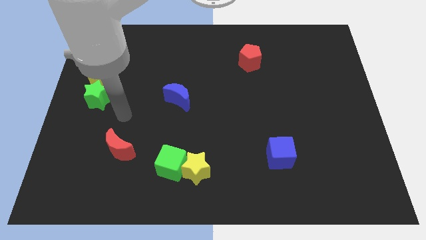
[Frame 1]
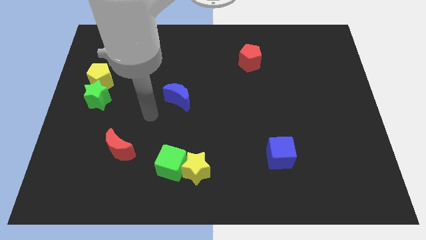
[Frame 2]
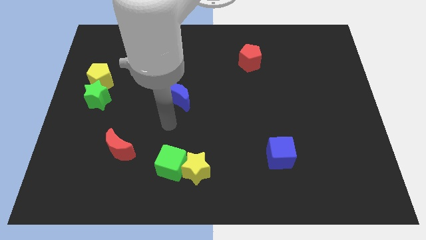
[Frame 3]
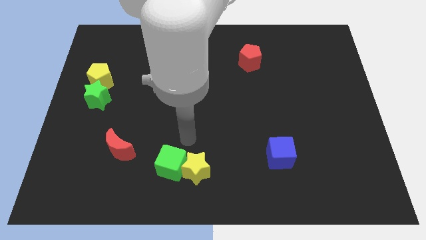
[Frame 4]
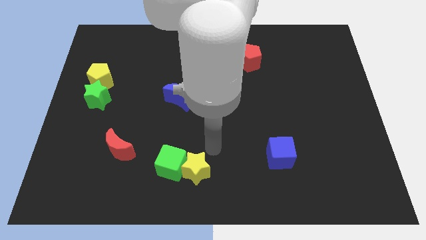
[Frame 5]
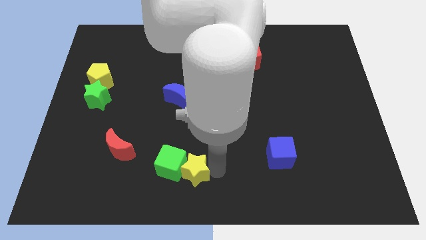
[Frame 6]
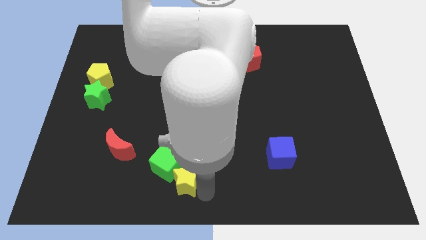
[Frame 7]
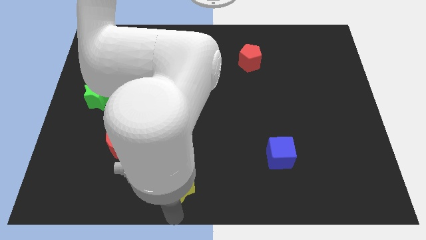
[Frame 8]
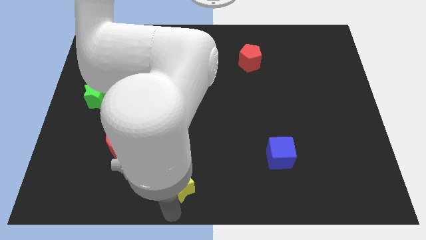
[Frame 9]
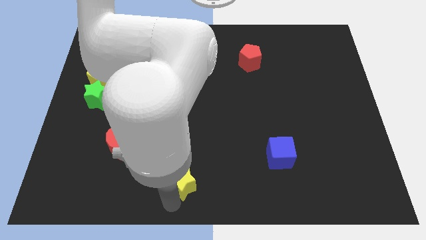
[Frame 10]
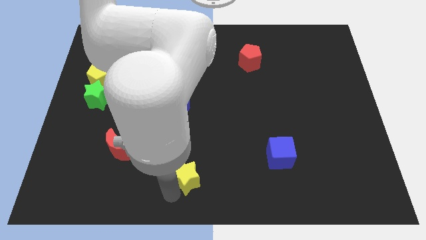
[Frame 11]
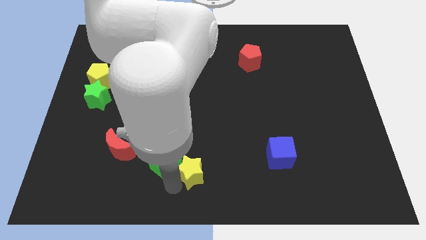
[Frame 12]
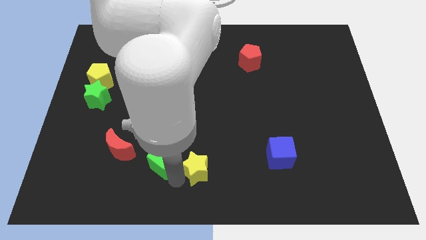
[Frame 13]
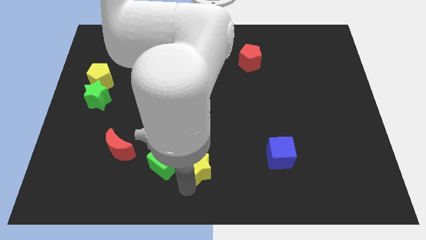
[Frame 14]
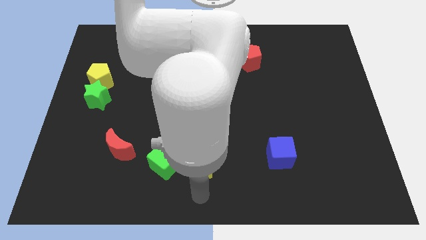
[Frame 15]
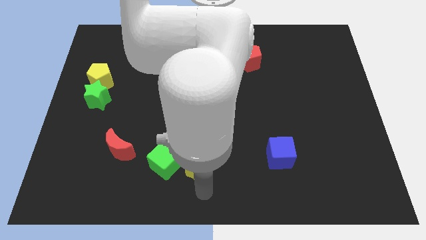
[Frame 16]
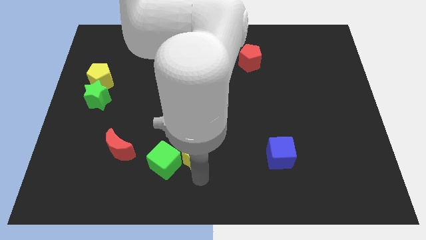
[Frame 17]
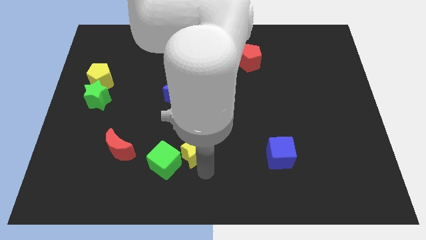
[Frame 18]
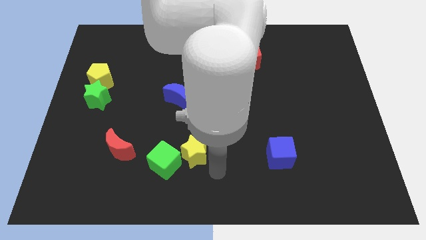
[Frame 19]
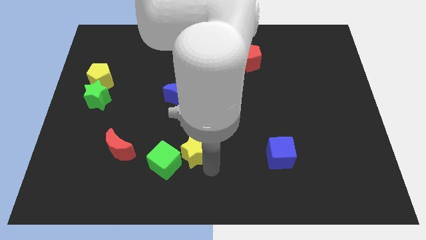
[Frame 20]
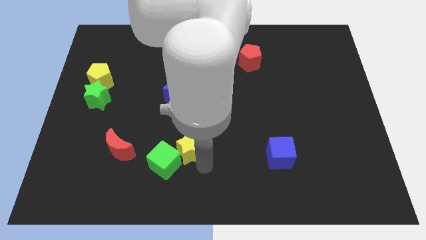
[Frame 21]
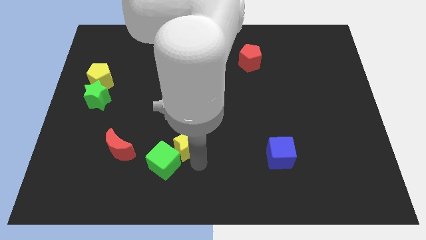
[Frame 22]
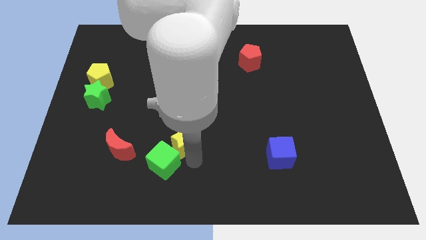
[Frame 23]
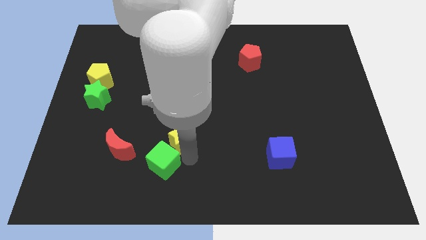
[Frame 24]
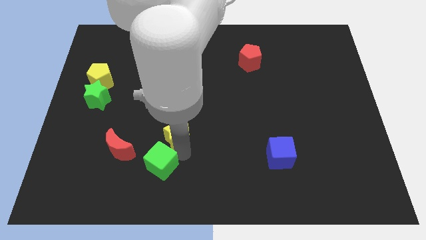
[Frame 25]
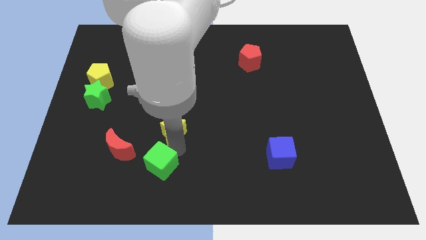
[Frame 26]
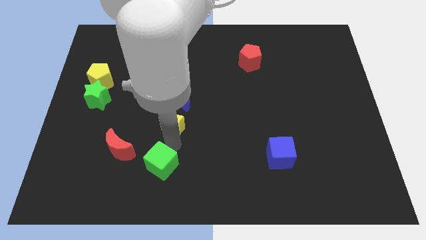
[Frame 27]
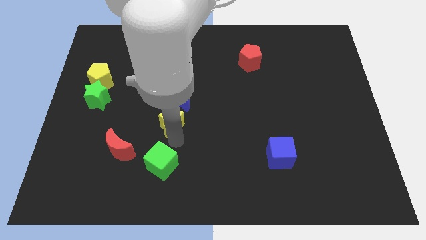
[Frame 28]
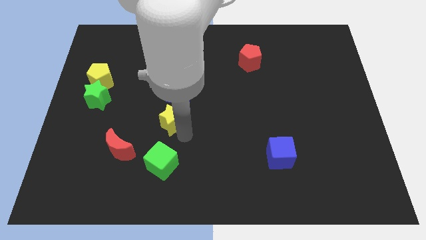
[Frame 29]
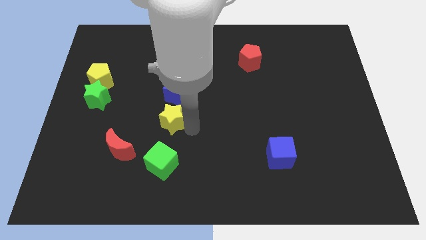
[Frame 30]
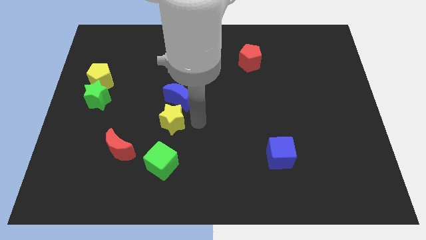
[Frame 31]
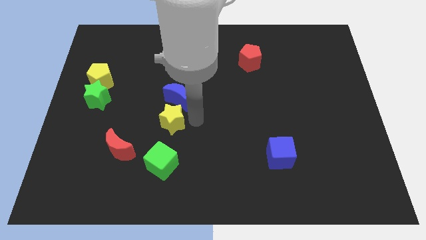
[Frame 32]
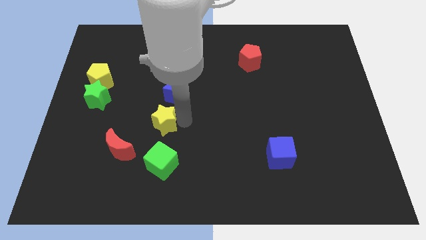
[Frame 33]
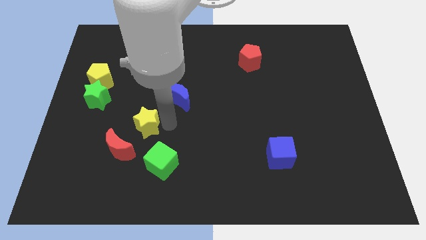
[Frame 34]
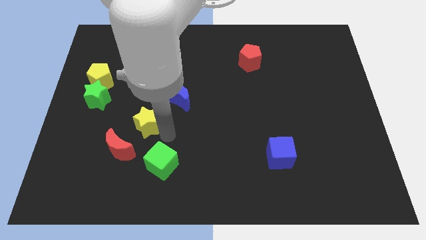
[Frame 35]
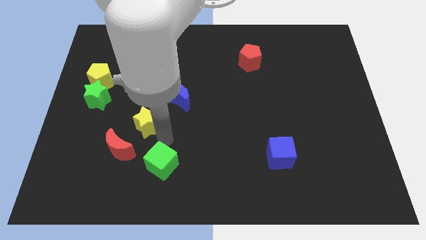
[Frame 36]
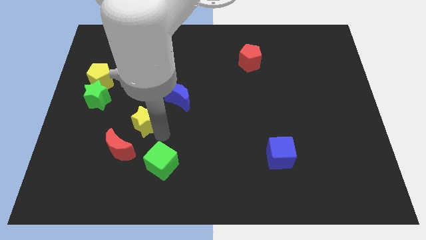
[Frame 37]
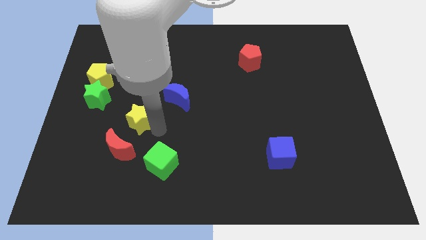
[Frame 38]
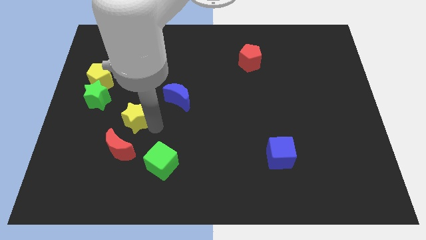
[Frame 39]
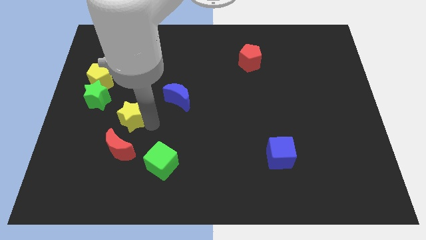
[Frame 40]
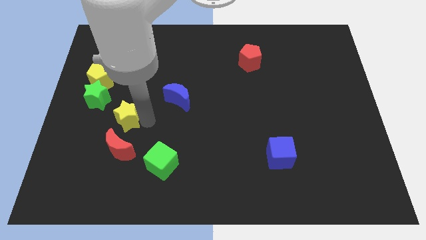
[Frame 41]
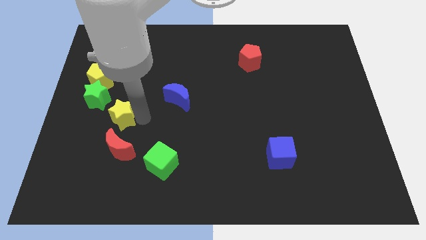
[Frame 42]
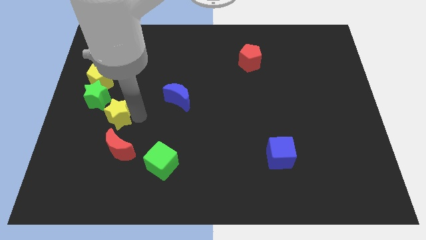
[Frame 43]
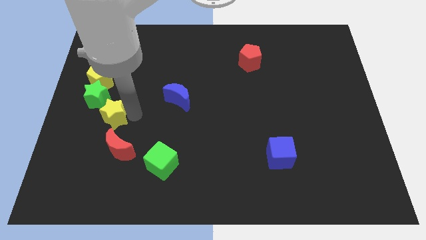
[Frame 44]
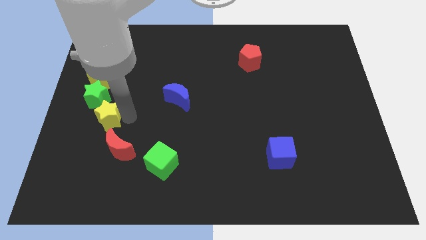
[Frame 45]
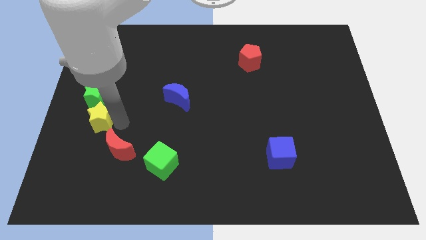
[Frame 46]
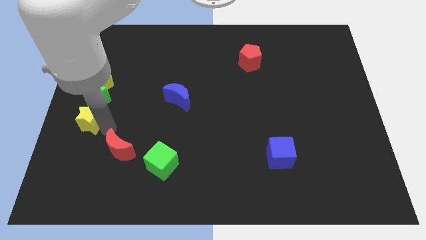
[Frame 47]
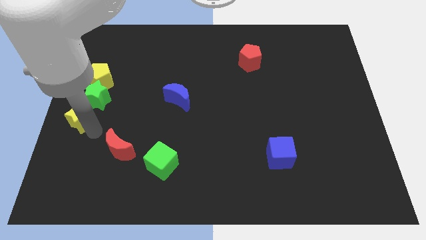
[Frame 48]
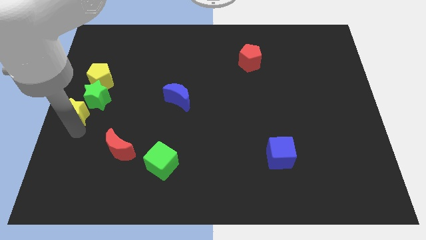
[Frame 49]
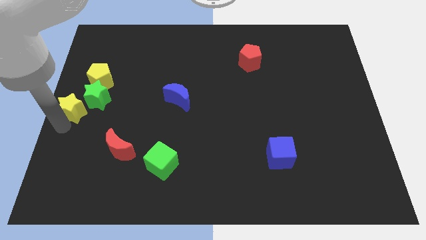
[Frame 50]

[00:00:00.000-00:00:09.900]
push the yellow star next to the green star

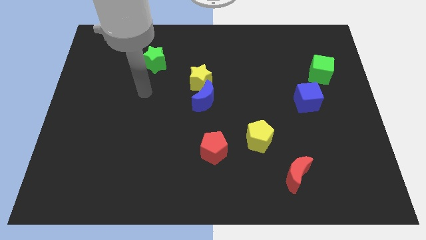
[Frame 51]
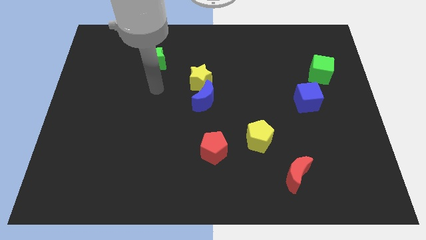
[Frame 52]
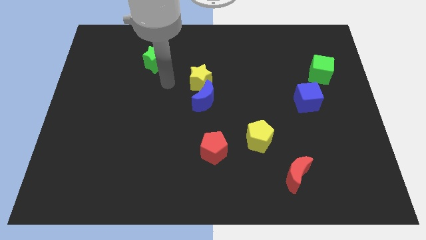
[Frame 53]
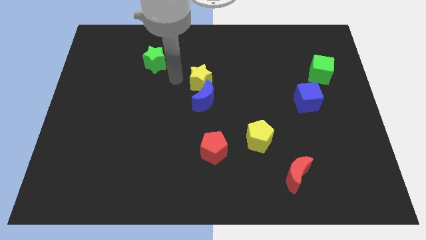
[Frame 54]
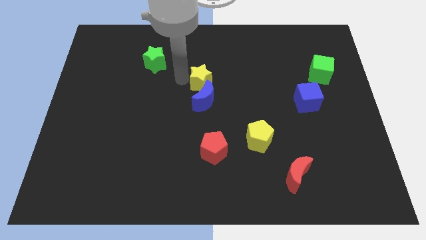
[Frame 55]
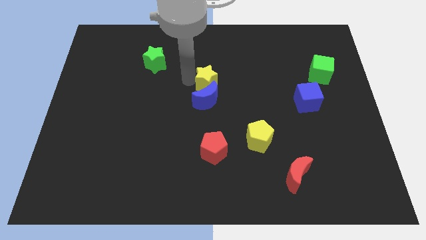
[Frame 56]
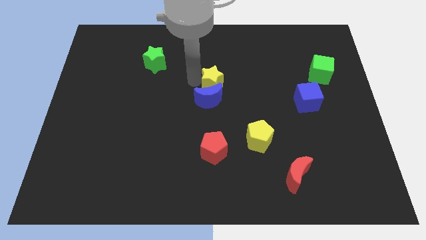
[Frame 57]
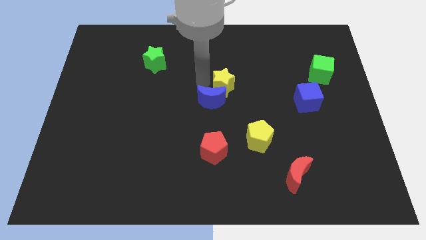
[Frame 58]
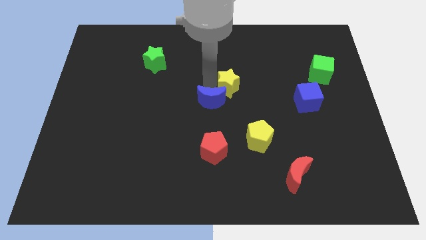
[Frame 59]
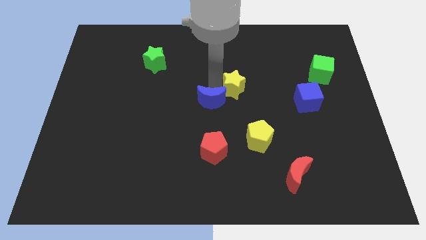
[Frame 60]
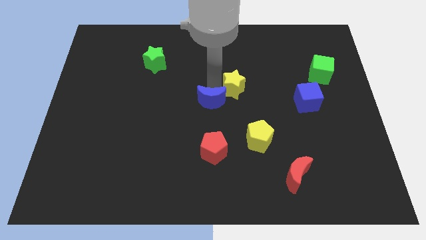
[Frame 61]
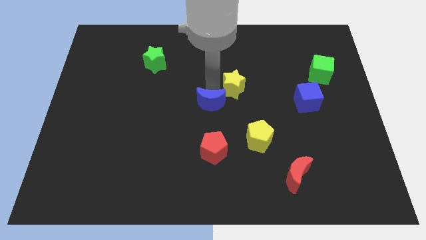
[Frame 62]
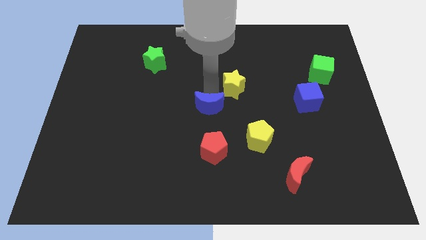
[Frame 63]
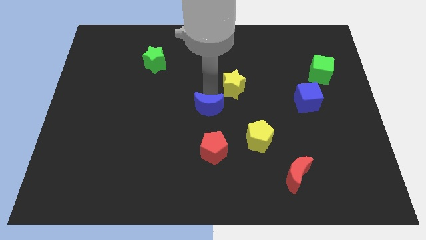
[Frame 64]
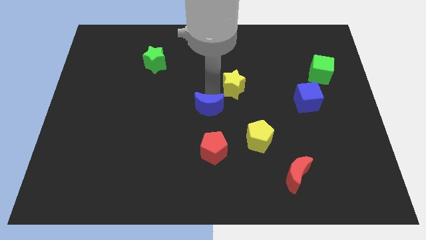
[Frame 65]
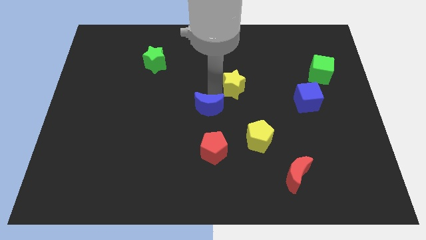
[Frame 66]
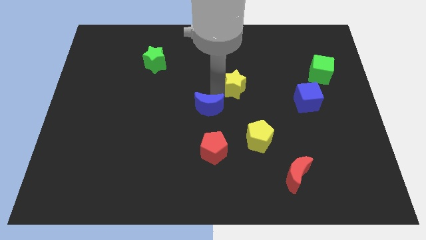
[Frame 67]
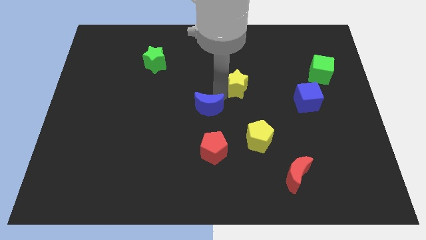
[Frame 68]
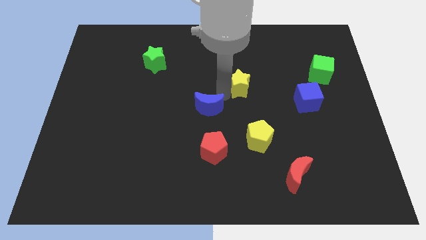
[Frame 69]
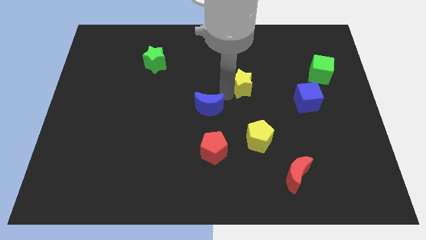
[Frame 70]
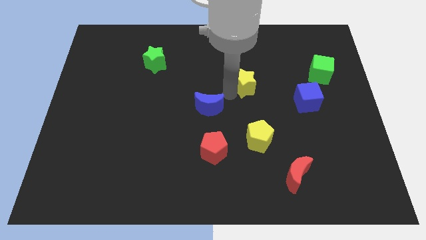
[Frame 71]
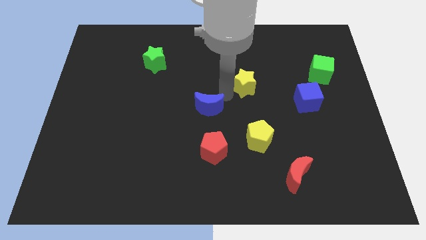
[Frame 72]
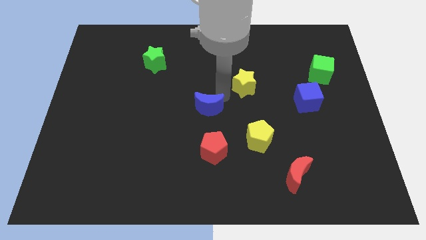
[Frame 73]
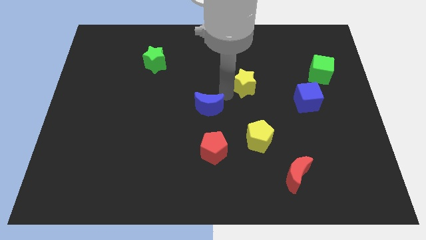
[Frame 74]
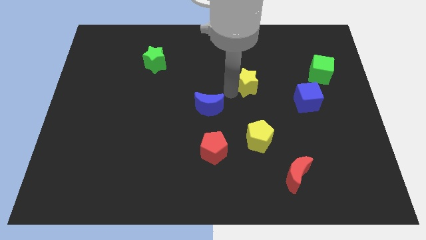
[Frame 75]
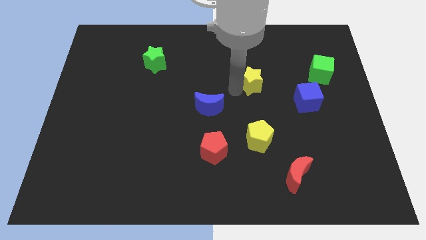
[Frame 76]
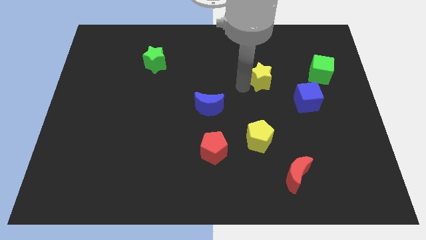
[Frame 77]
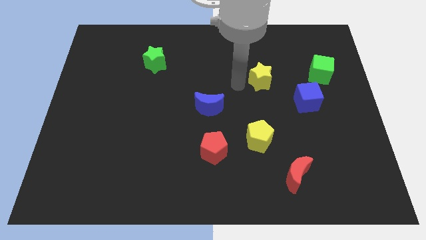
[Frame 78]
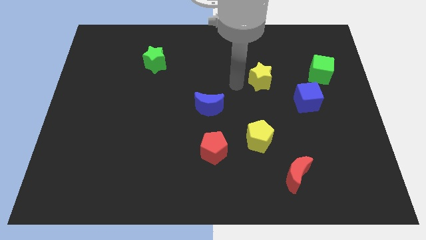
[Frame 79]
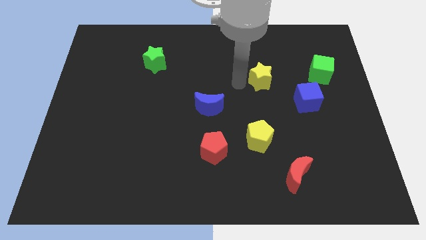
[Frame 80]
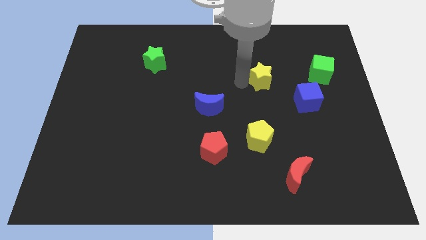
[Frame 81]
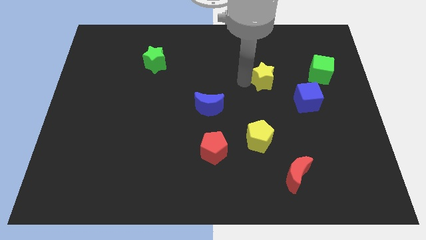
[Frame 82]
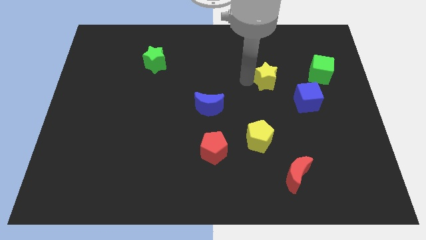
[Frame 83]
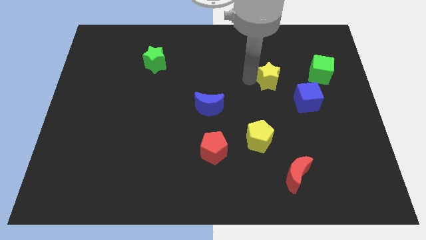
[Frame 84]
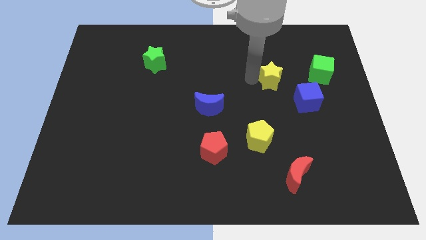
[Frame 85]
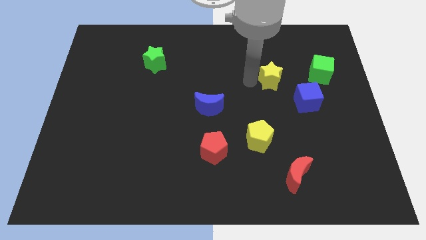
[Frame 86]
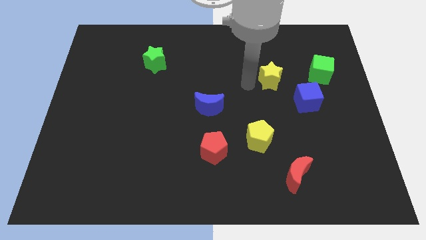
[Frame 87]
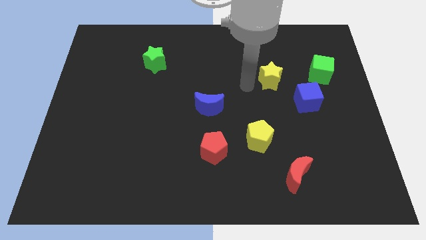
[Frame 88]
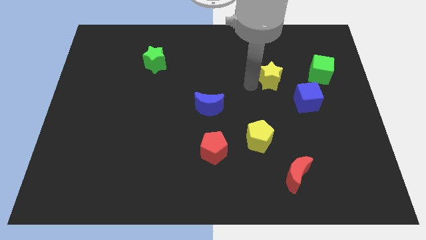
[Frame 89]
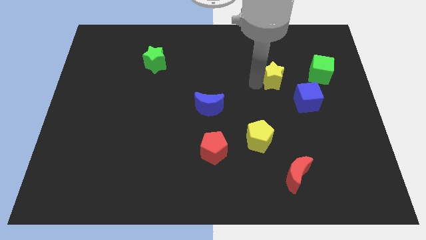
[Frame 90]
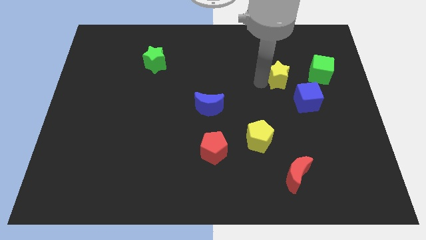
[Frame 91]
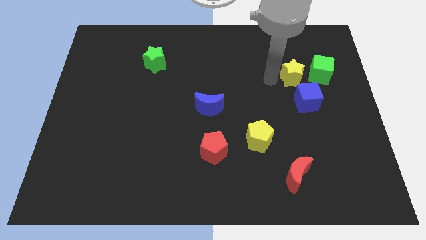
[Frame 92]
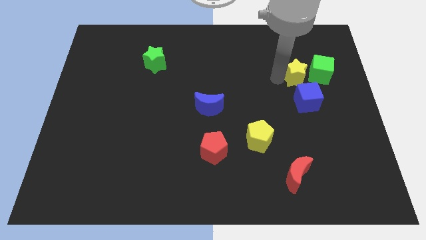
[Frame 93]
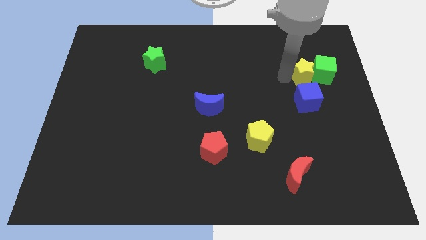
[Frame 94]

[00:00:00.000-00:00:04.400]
slide the yellow star close to the green cube
